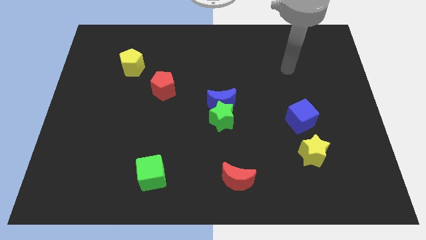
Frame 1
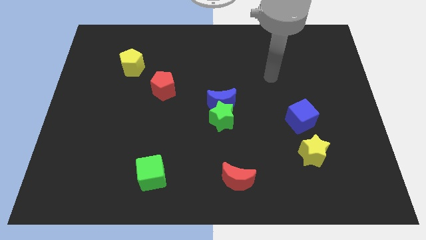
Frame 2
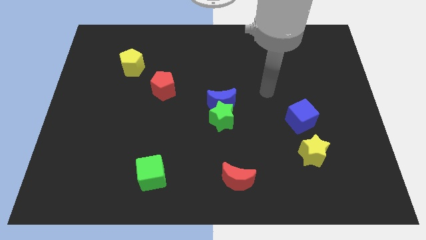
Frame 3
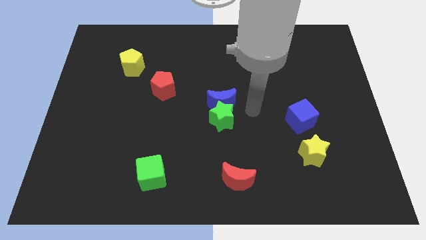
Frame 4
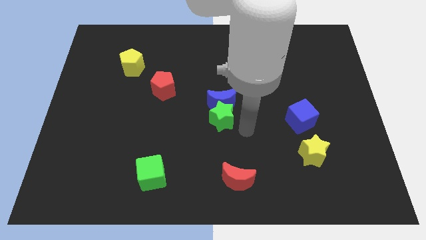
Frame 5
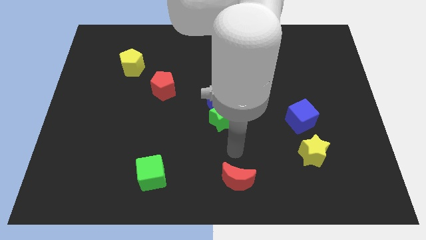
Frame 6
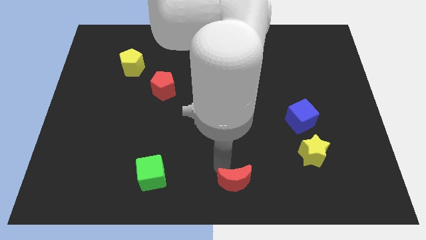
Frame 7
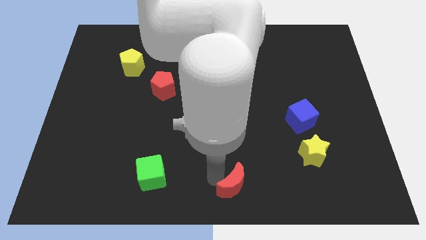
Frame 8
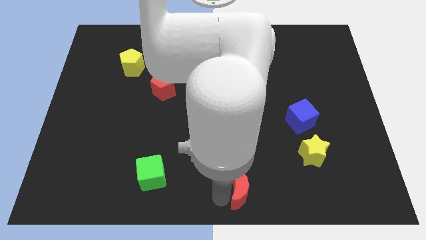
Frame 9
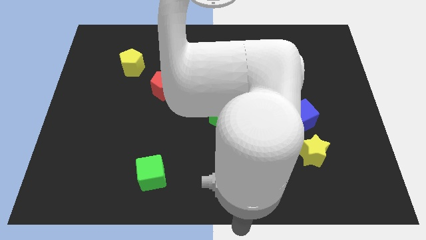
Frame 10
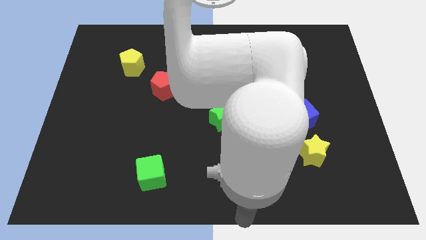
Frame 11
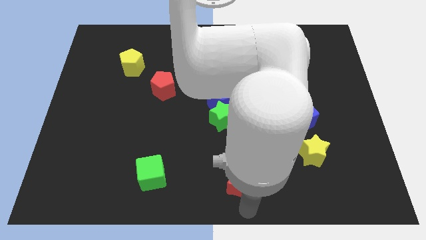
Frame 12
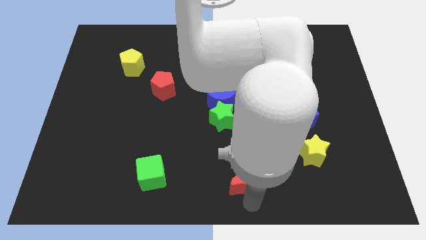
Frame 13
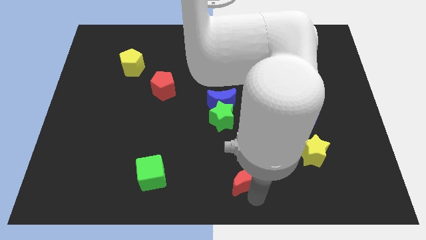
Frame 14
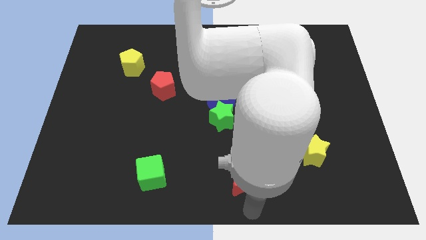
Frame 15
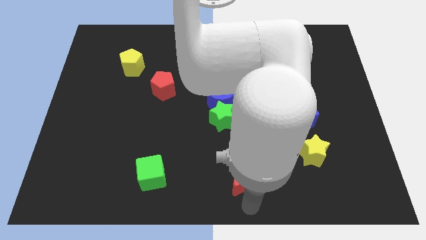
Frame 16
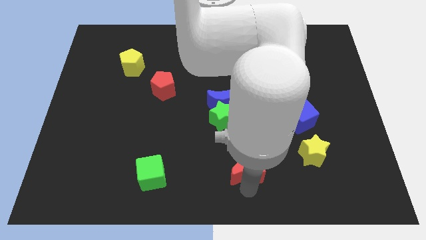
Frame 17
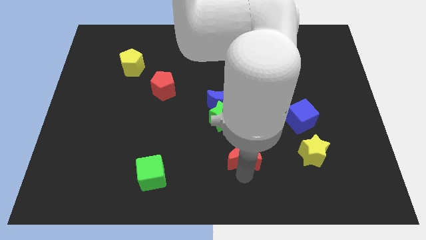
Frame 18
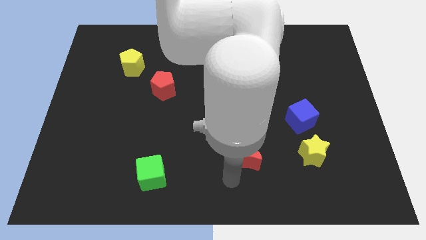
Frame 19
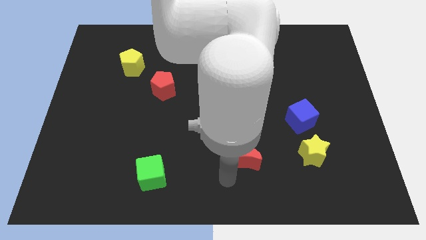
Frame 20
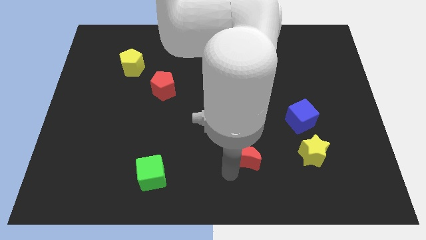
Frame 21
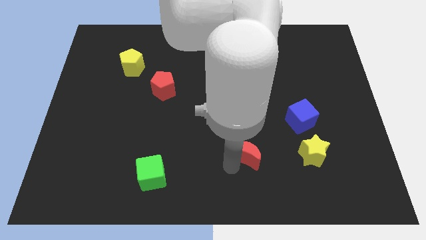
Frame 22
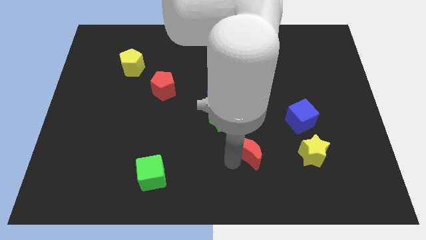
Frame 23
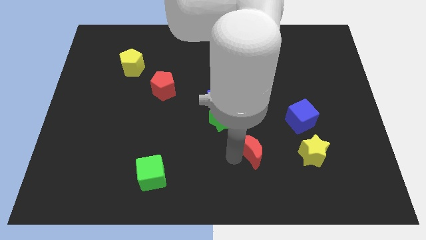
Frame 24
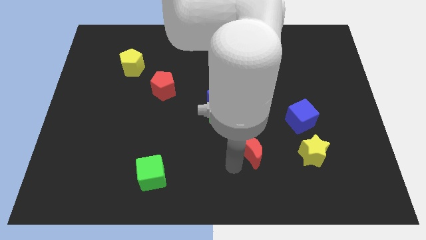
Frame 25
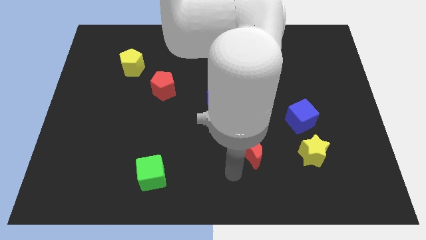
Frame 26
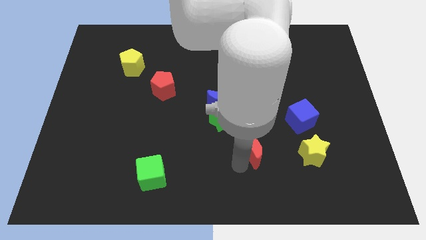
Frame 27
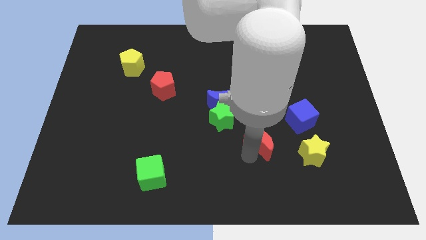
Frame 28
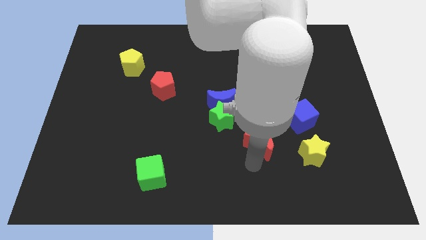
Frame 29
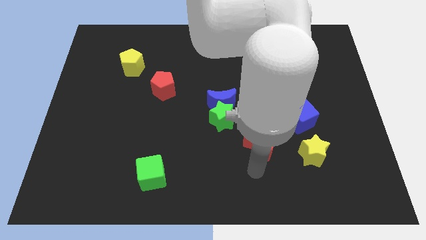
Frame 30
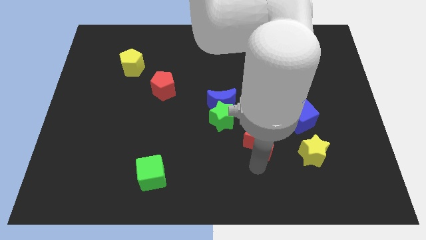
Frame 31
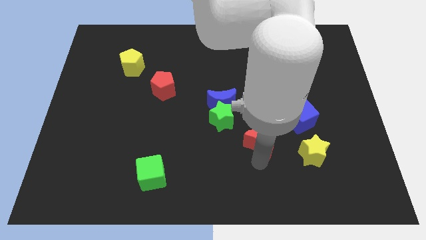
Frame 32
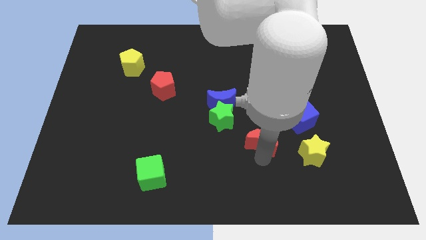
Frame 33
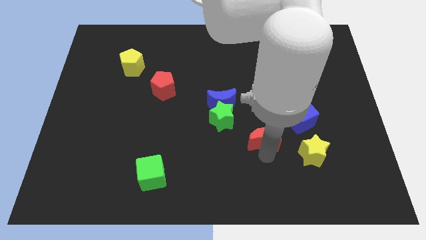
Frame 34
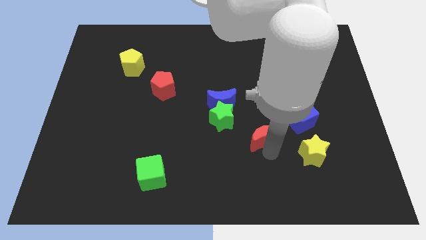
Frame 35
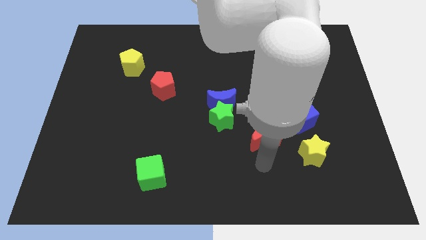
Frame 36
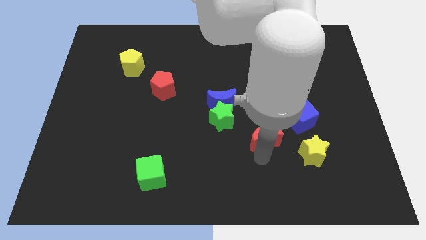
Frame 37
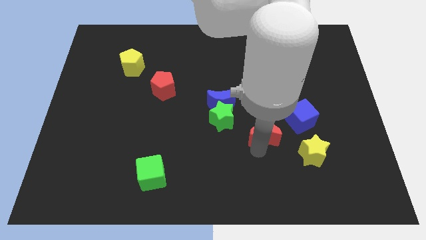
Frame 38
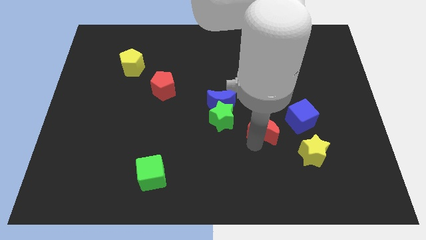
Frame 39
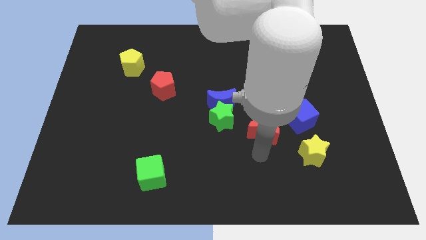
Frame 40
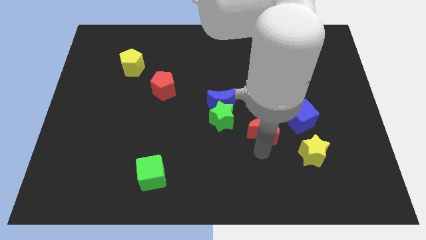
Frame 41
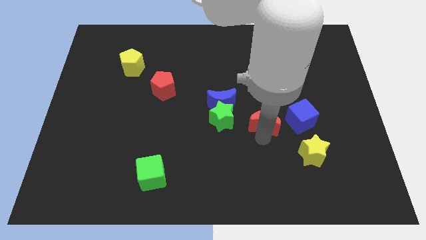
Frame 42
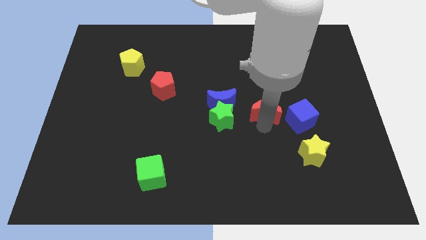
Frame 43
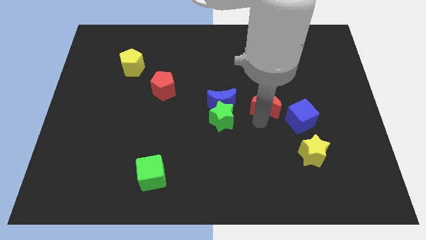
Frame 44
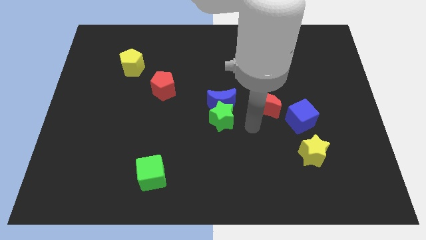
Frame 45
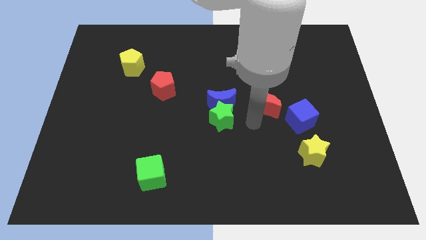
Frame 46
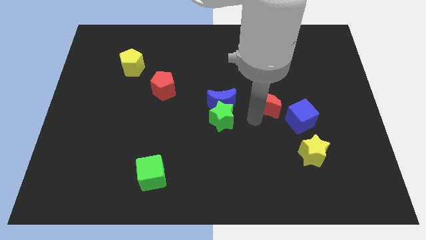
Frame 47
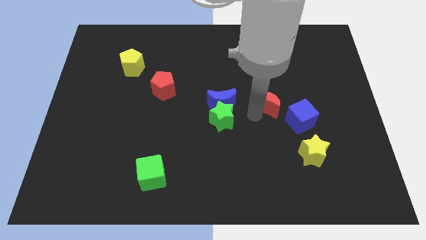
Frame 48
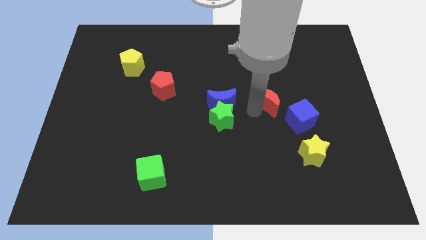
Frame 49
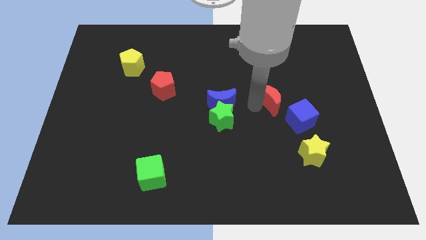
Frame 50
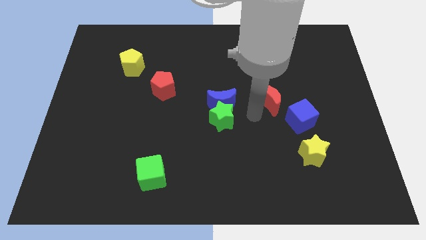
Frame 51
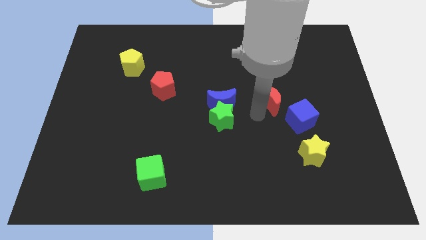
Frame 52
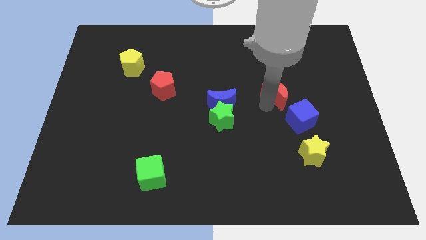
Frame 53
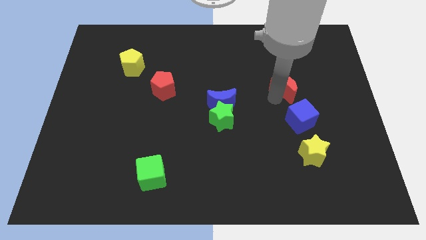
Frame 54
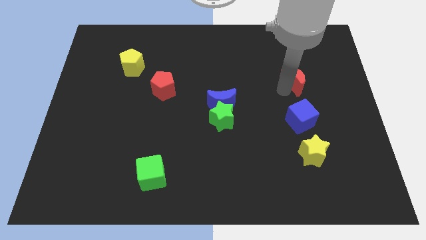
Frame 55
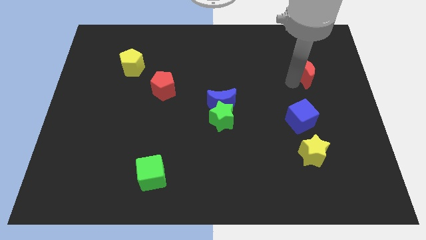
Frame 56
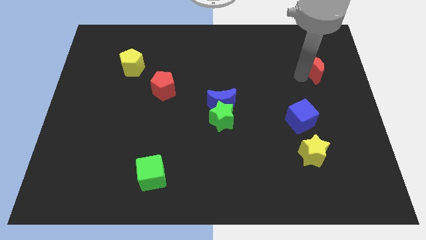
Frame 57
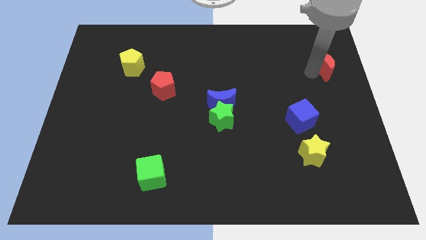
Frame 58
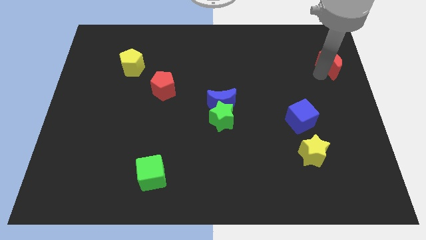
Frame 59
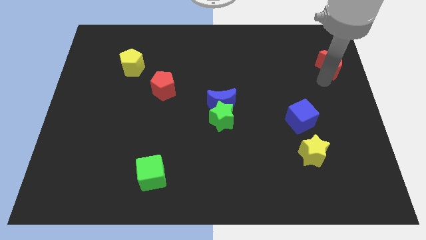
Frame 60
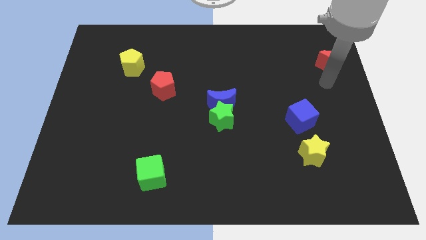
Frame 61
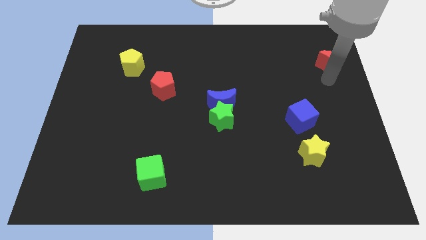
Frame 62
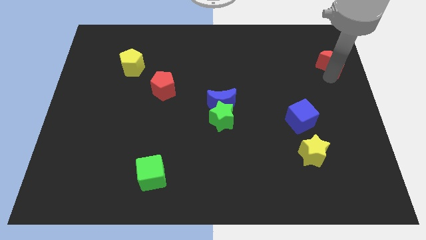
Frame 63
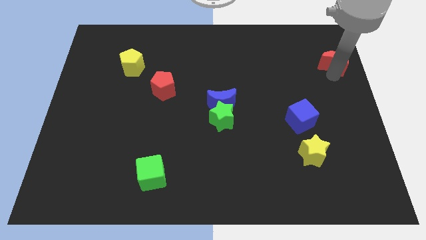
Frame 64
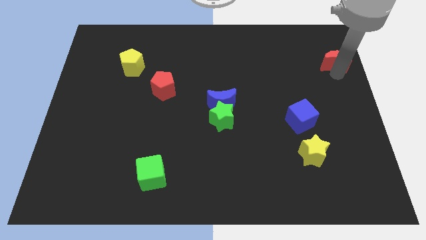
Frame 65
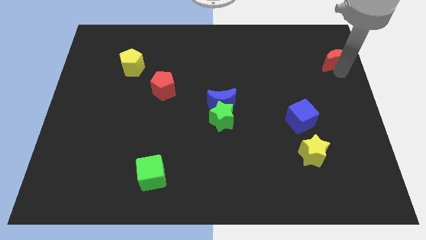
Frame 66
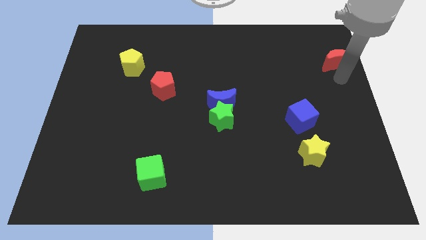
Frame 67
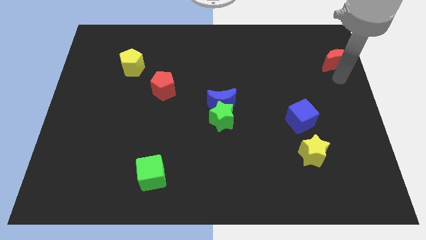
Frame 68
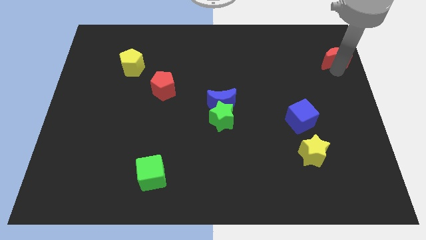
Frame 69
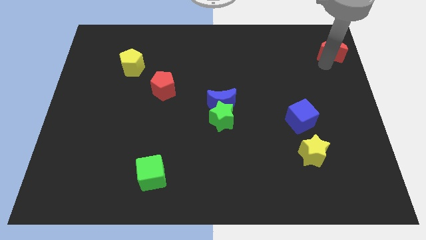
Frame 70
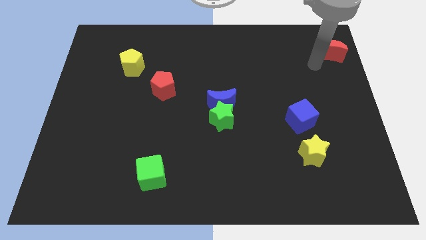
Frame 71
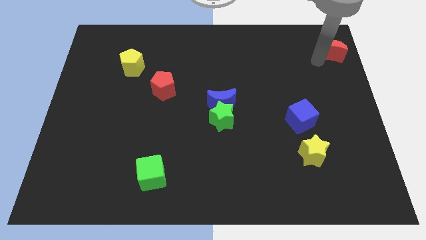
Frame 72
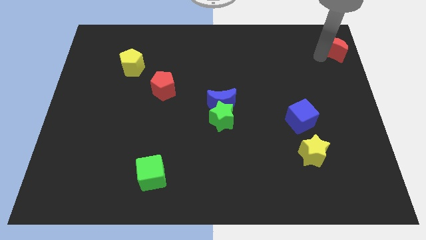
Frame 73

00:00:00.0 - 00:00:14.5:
slide the red moon to the top right corner
